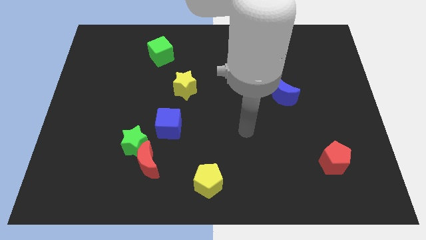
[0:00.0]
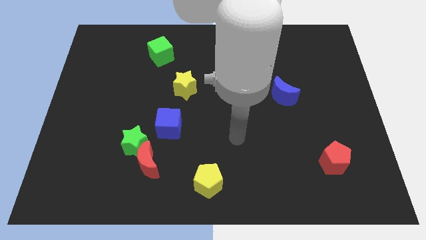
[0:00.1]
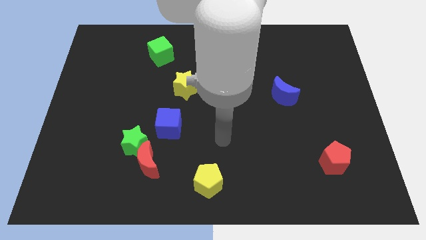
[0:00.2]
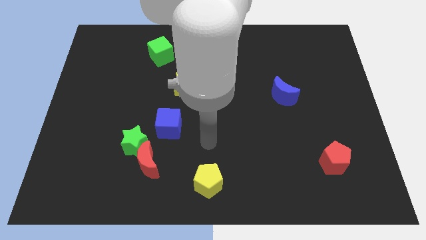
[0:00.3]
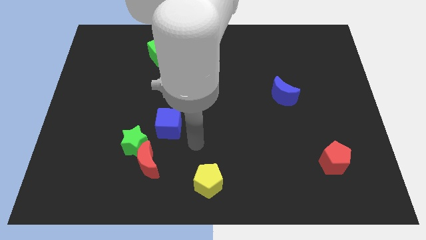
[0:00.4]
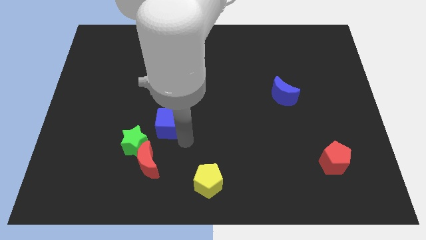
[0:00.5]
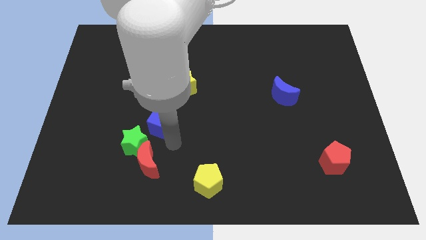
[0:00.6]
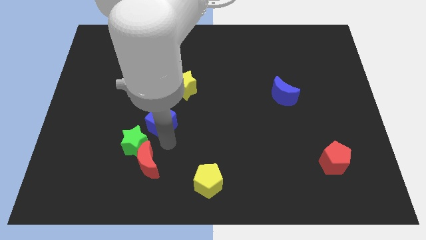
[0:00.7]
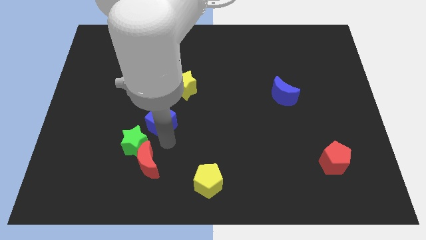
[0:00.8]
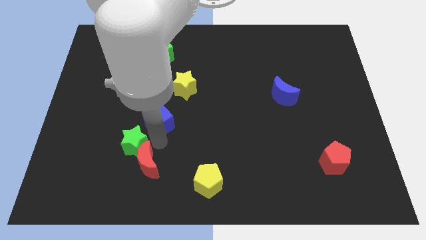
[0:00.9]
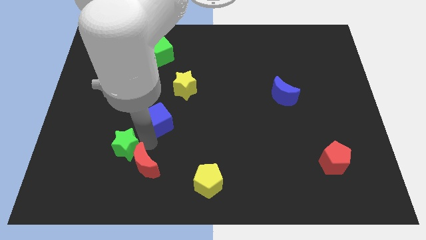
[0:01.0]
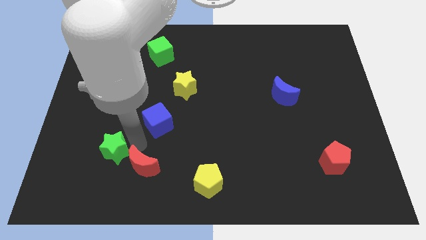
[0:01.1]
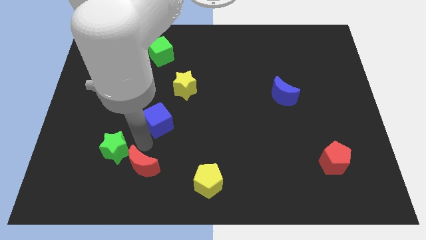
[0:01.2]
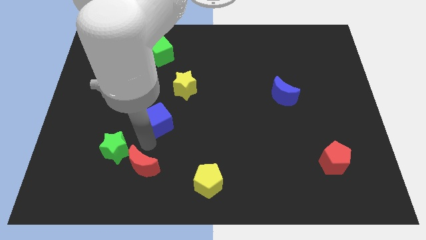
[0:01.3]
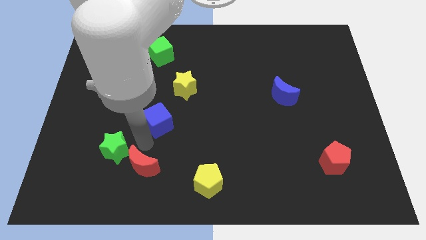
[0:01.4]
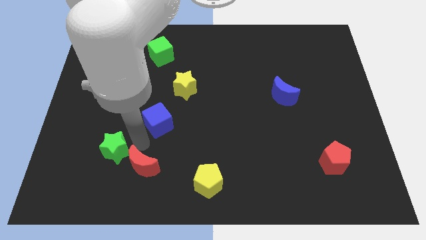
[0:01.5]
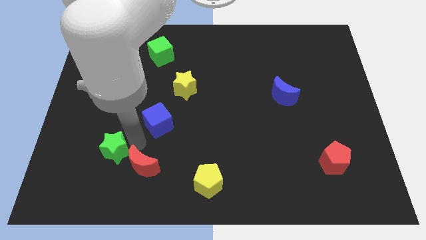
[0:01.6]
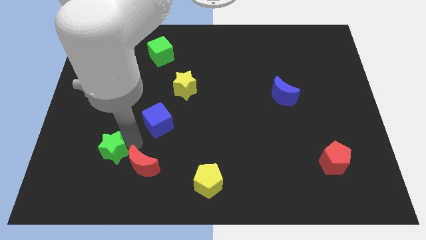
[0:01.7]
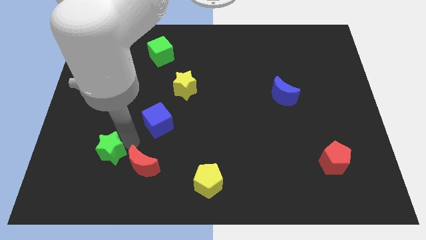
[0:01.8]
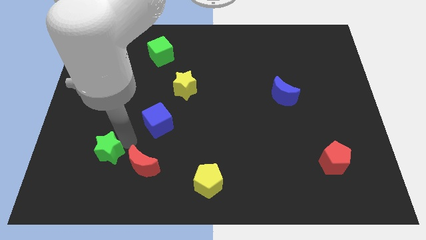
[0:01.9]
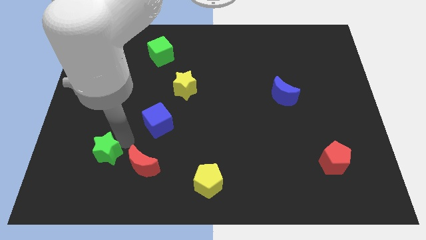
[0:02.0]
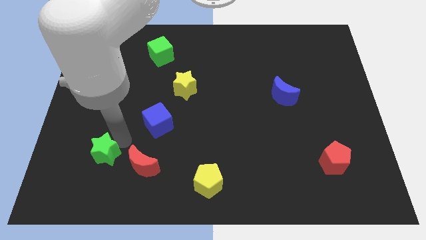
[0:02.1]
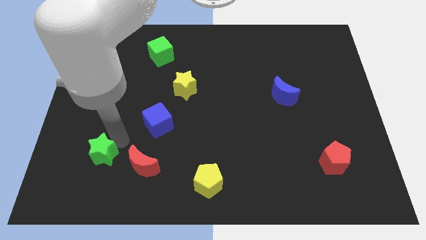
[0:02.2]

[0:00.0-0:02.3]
separate the green star from the red moon and blue cube

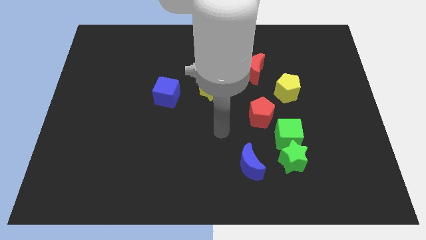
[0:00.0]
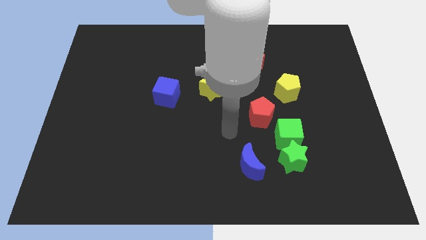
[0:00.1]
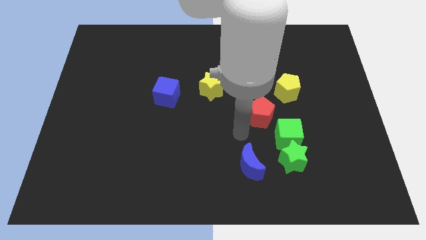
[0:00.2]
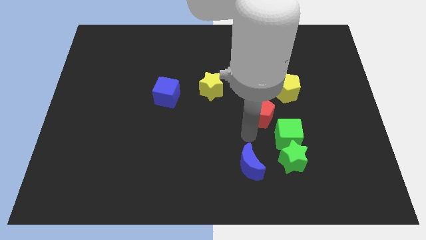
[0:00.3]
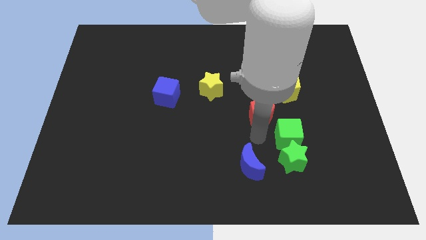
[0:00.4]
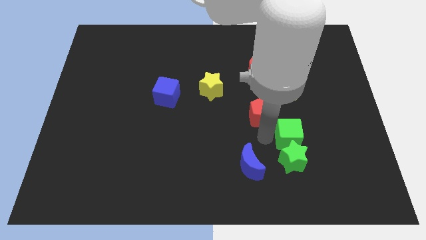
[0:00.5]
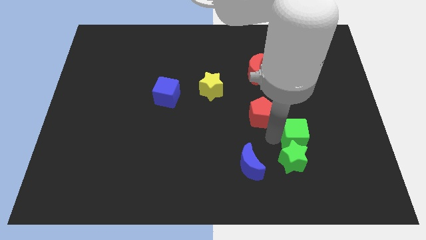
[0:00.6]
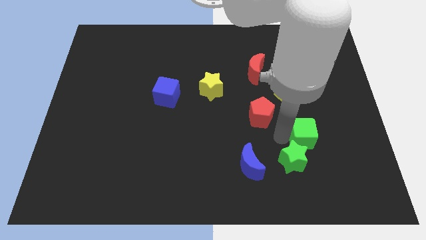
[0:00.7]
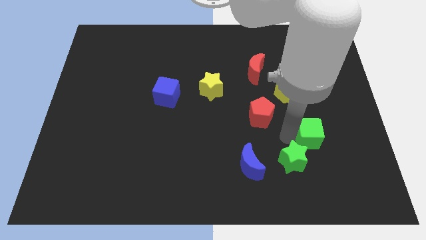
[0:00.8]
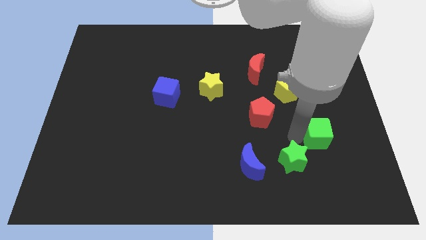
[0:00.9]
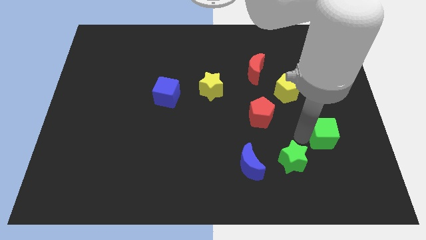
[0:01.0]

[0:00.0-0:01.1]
pull the green cube apart from the green star and red pentagon

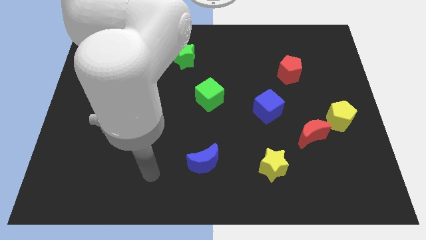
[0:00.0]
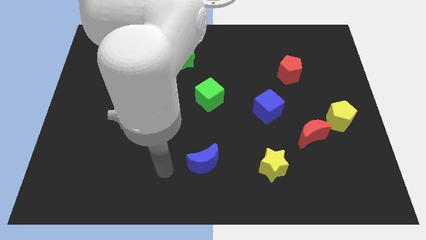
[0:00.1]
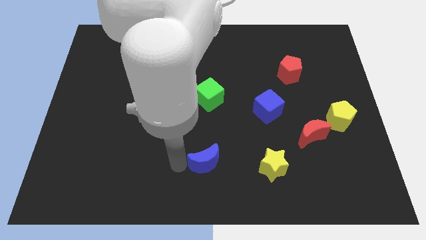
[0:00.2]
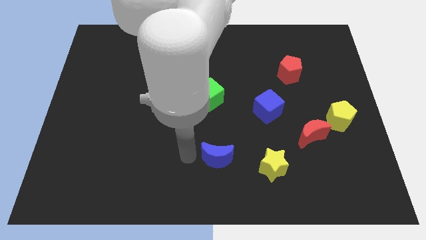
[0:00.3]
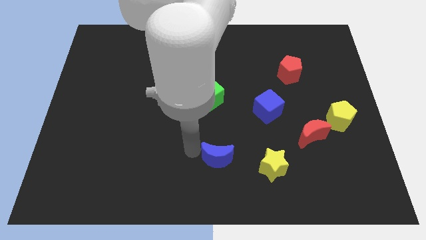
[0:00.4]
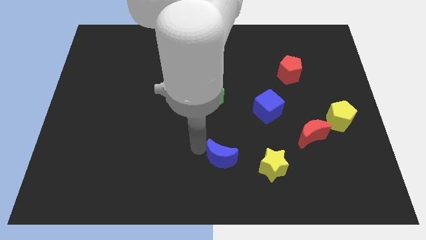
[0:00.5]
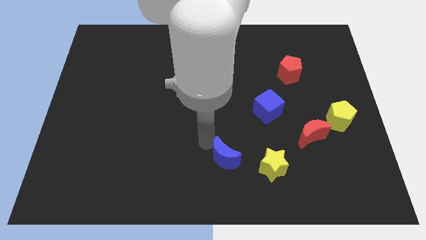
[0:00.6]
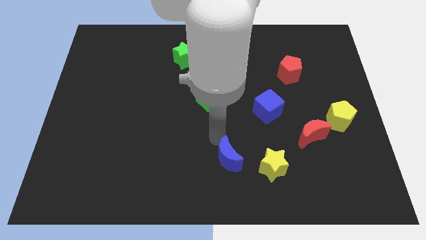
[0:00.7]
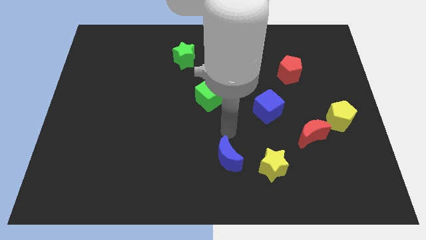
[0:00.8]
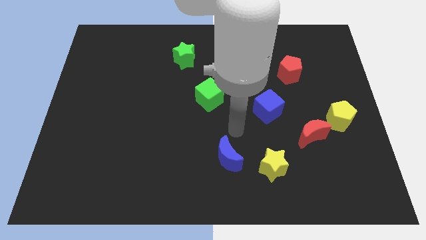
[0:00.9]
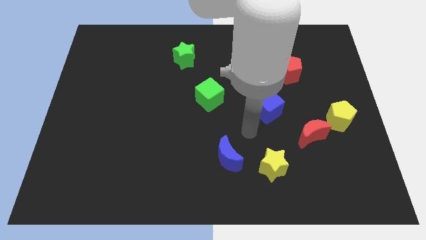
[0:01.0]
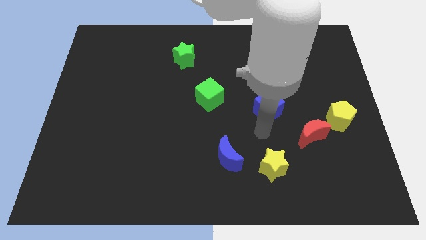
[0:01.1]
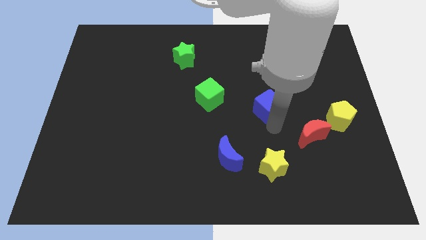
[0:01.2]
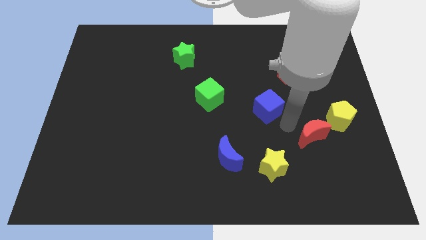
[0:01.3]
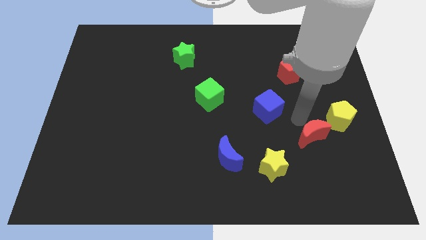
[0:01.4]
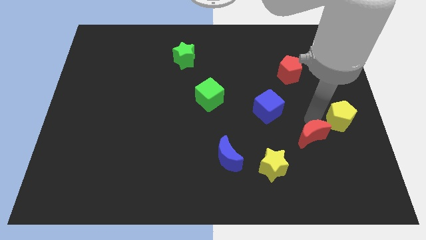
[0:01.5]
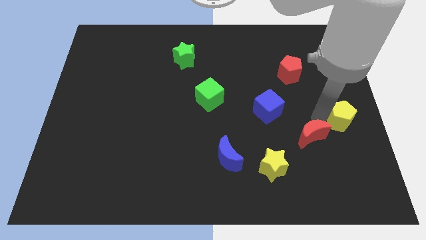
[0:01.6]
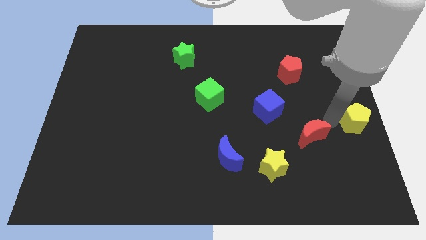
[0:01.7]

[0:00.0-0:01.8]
separate the red moon from the yellow pentagon

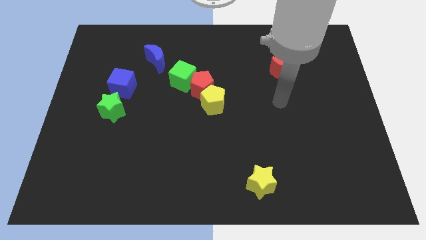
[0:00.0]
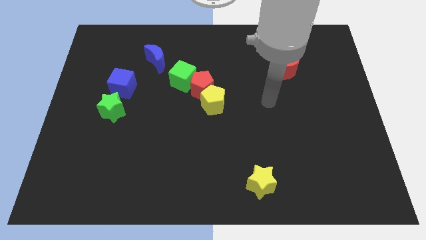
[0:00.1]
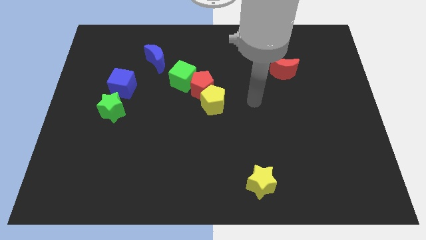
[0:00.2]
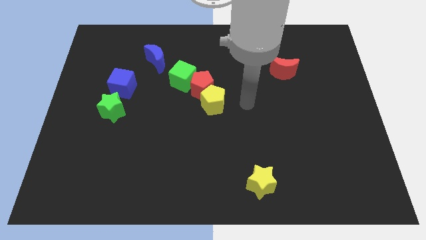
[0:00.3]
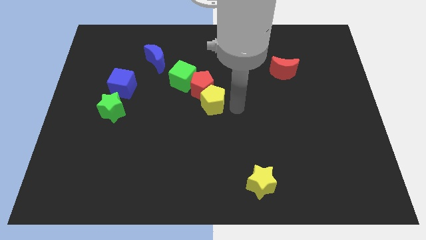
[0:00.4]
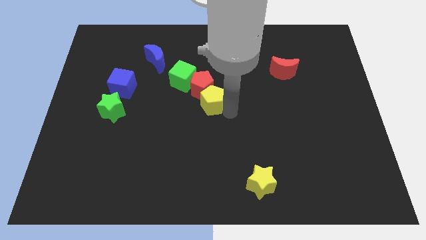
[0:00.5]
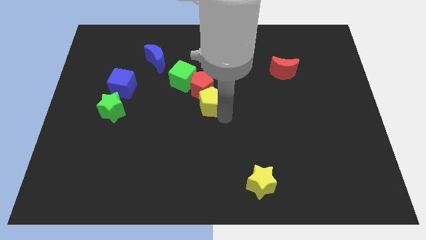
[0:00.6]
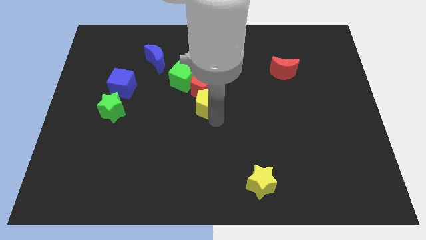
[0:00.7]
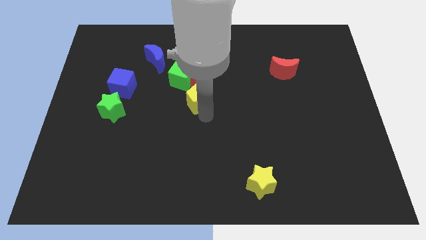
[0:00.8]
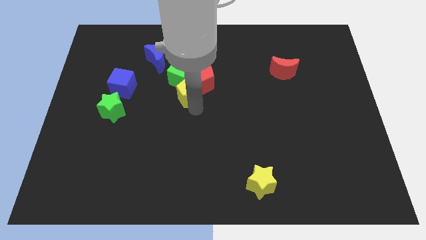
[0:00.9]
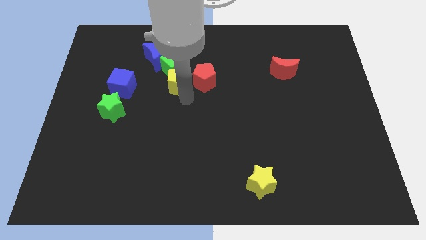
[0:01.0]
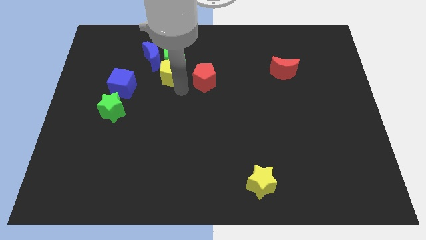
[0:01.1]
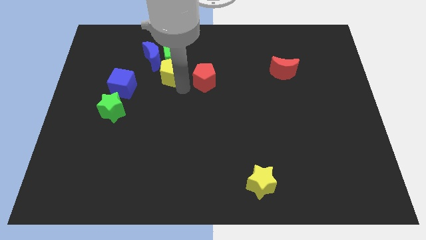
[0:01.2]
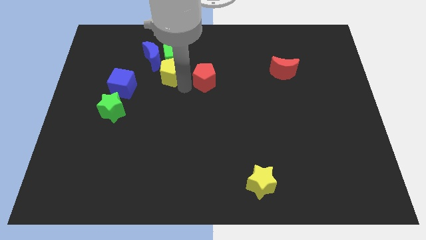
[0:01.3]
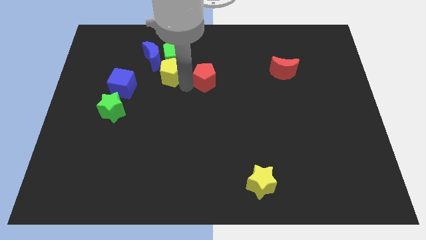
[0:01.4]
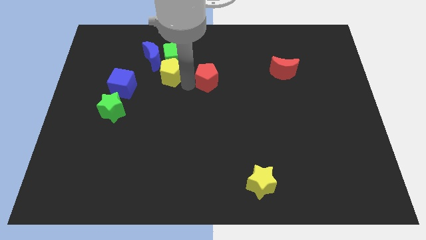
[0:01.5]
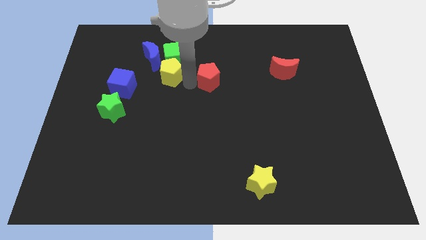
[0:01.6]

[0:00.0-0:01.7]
move the red pentagon away from the green cube and yellow pentagon

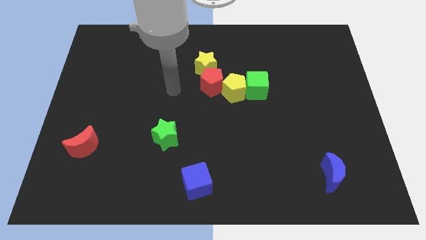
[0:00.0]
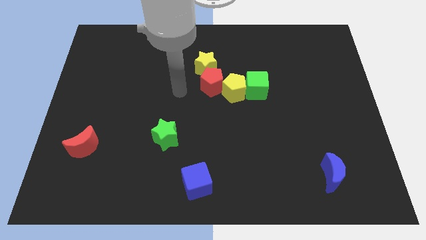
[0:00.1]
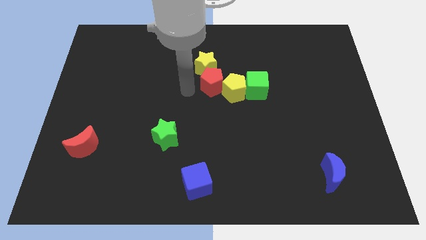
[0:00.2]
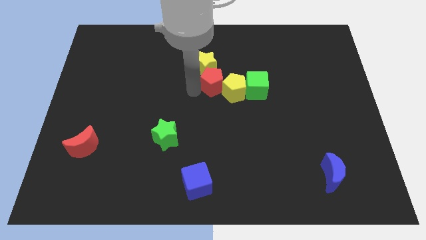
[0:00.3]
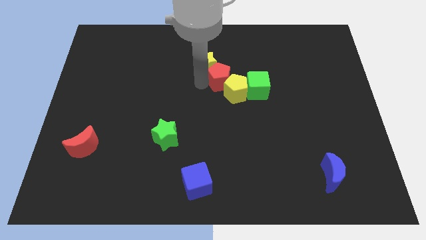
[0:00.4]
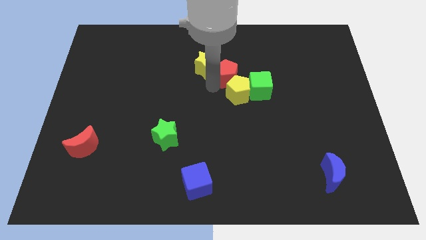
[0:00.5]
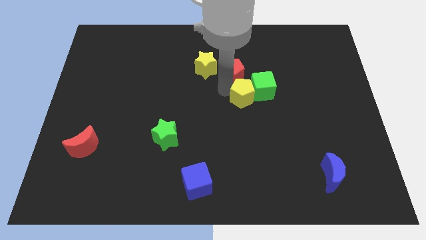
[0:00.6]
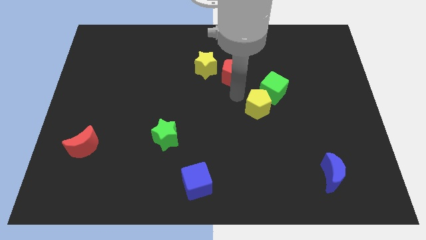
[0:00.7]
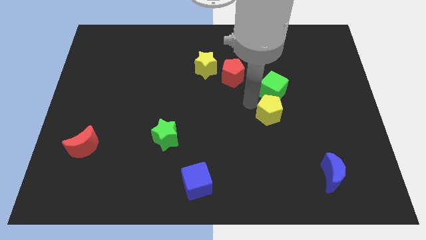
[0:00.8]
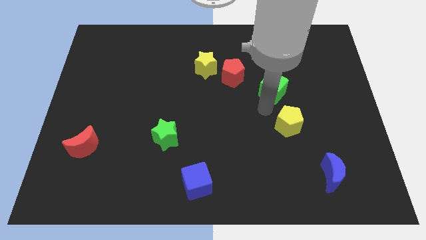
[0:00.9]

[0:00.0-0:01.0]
move the green cube away from the yellow pentagon

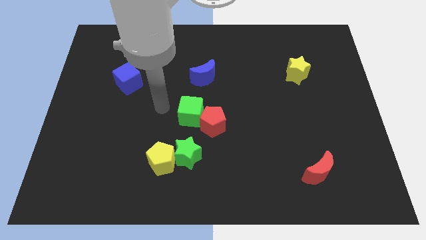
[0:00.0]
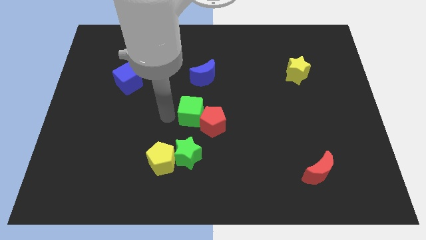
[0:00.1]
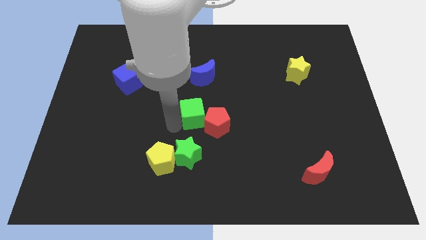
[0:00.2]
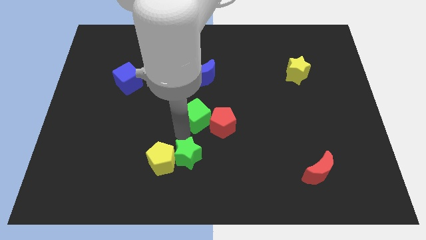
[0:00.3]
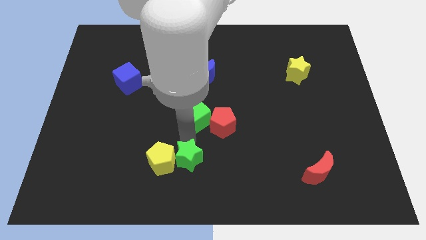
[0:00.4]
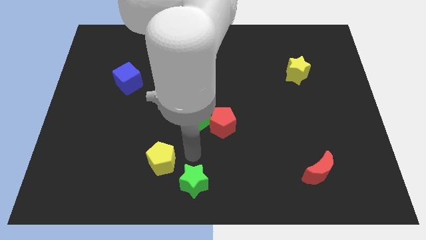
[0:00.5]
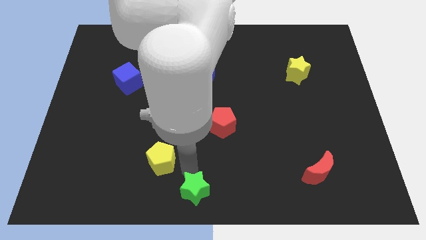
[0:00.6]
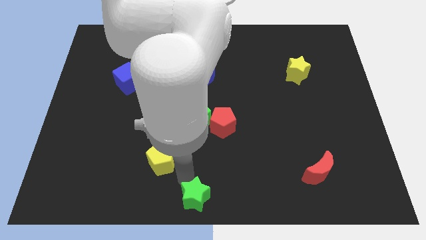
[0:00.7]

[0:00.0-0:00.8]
separate the yellow pentagon from the green star

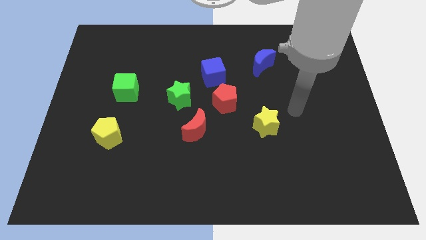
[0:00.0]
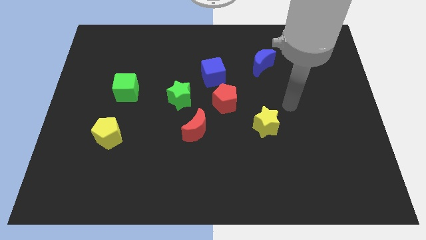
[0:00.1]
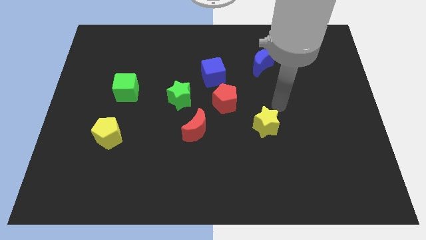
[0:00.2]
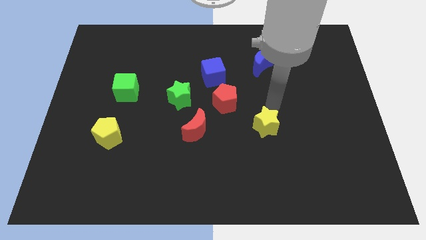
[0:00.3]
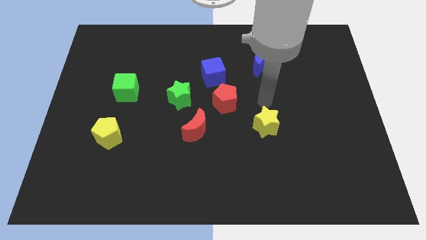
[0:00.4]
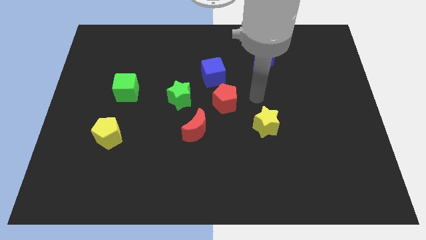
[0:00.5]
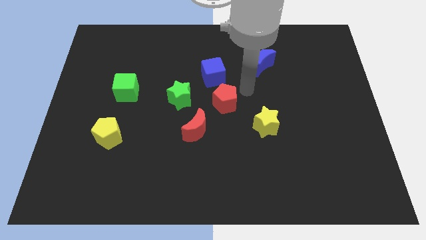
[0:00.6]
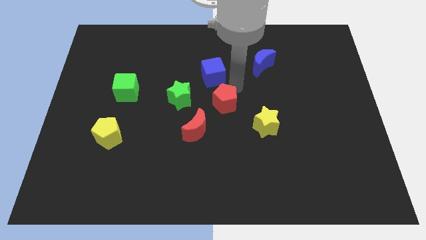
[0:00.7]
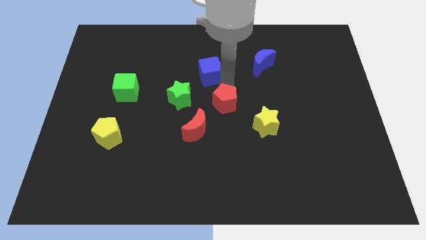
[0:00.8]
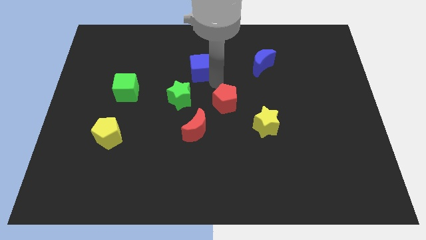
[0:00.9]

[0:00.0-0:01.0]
move the red pentagon away from the blue cube
